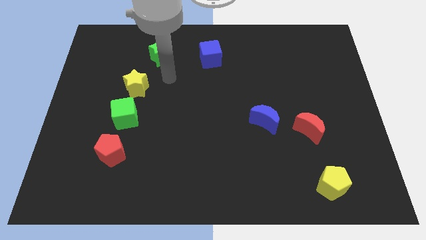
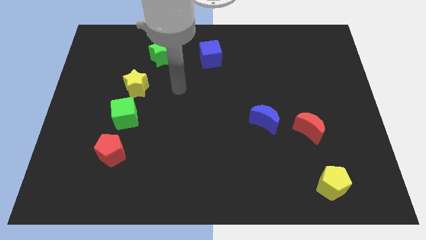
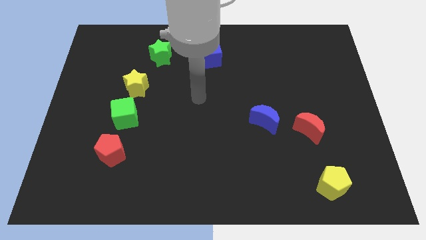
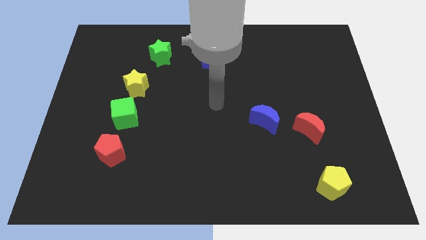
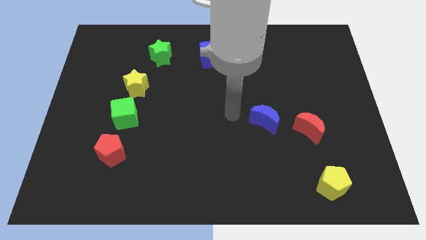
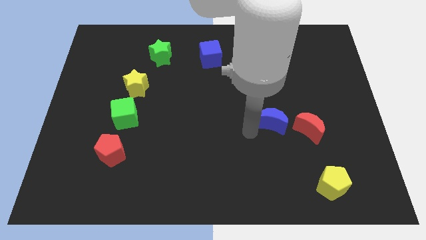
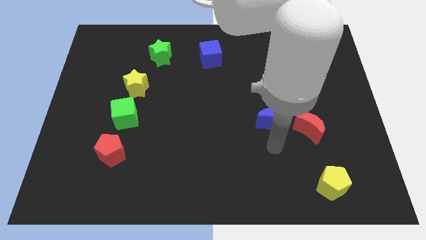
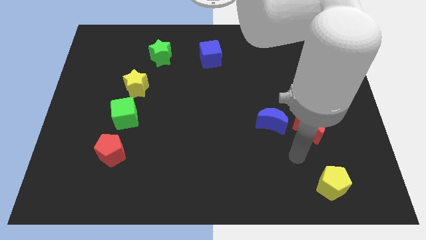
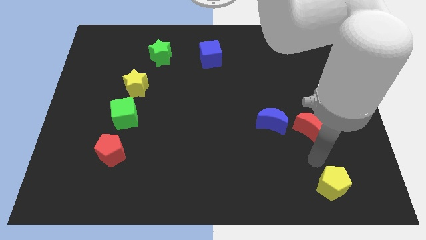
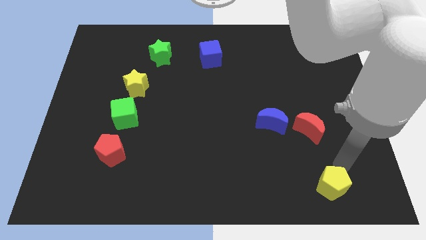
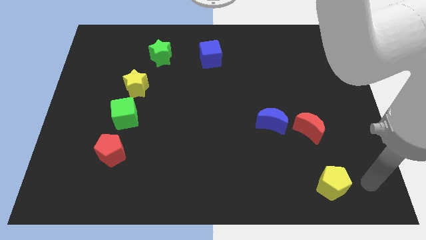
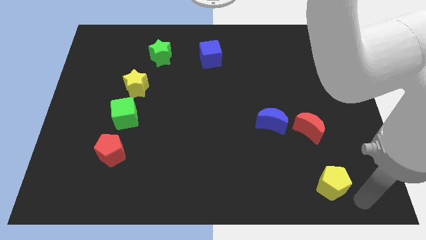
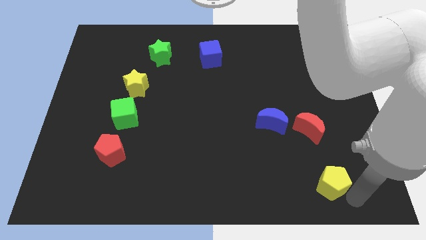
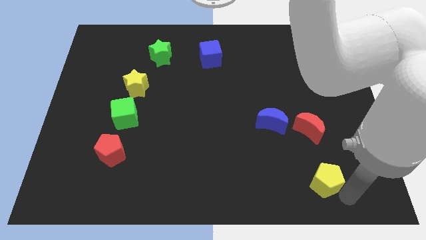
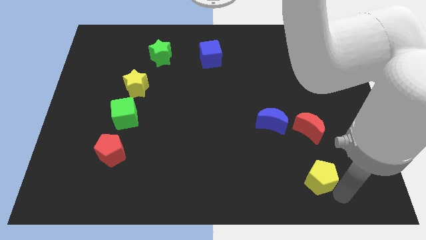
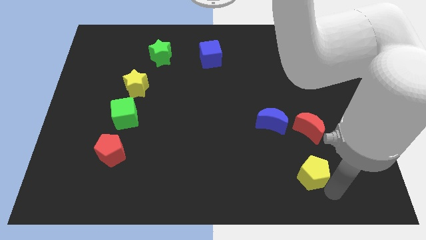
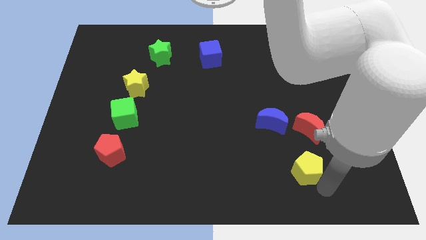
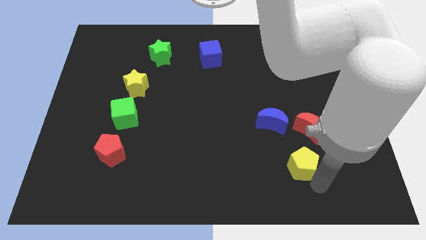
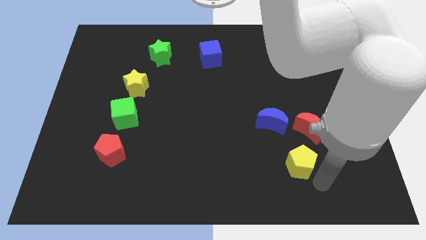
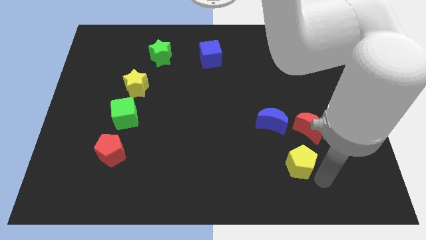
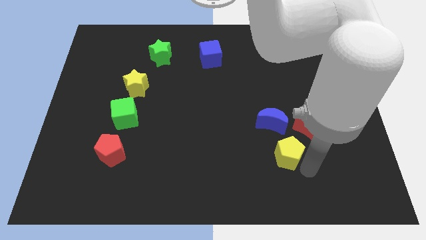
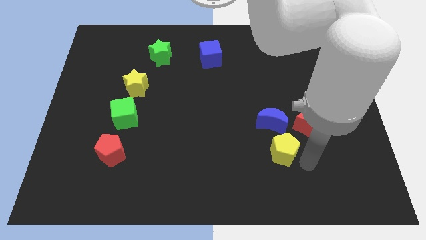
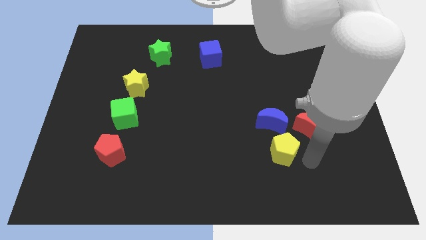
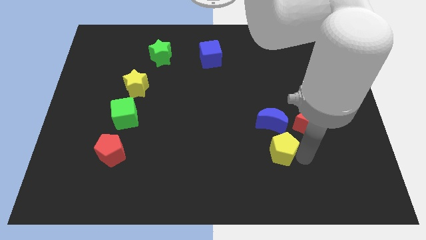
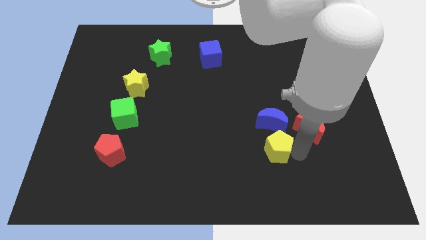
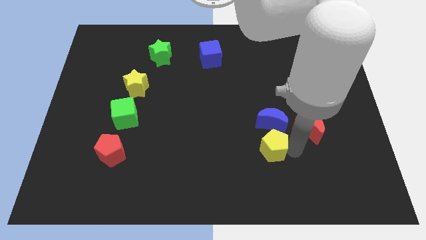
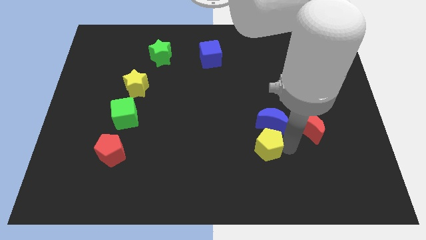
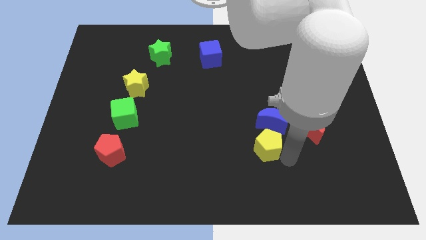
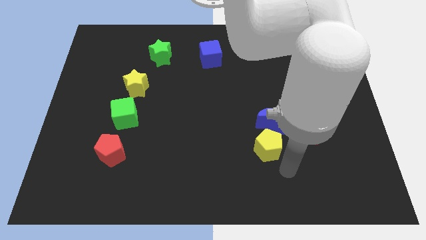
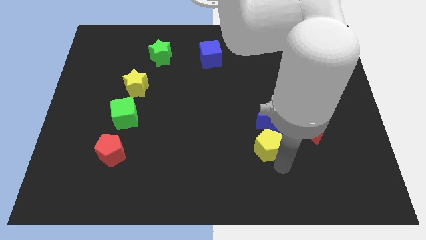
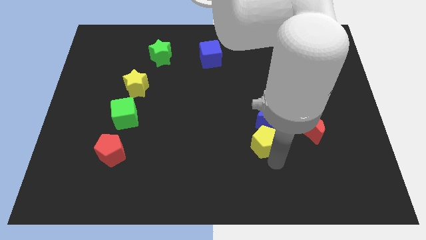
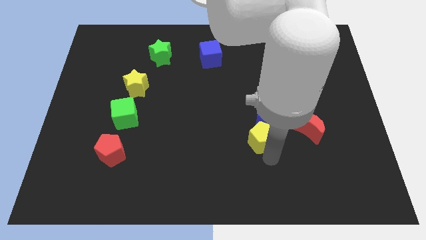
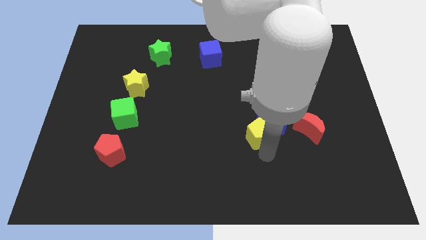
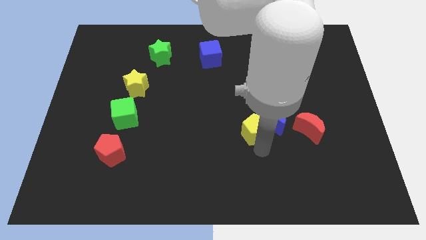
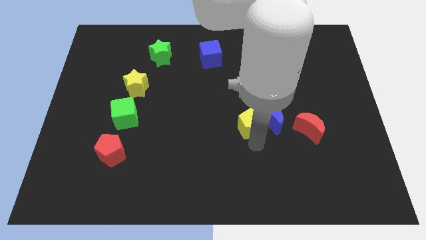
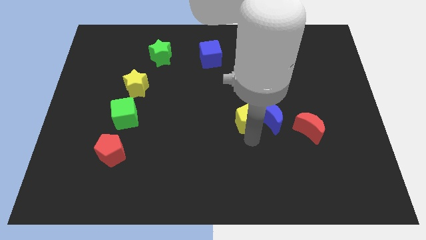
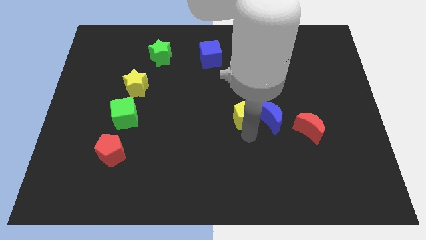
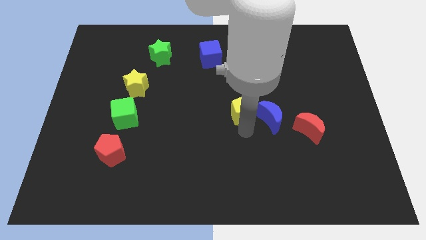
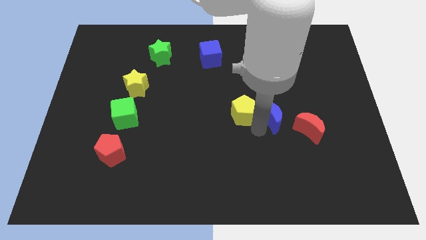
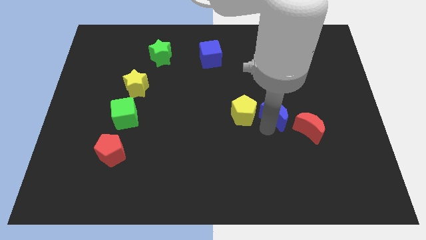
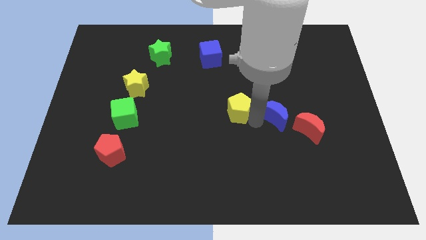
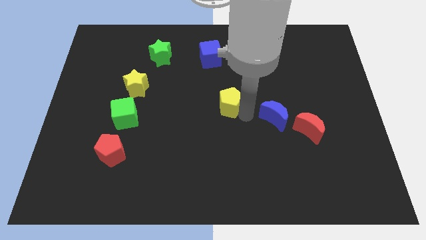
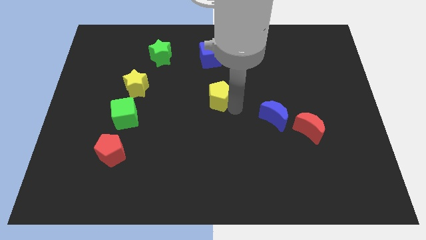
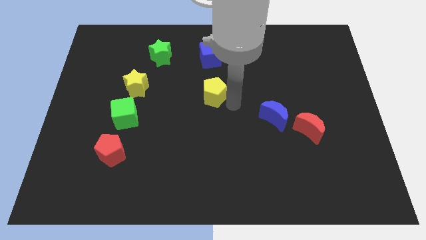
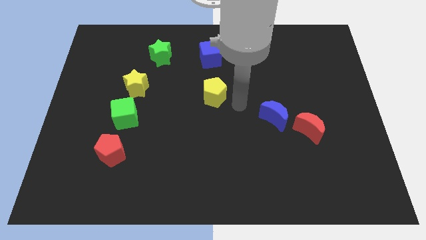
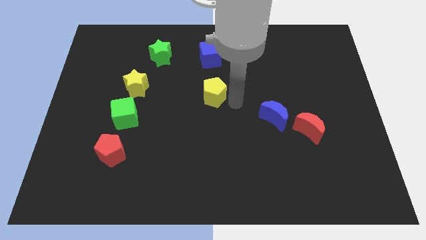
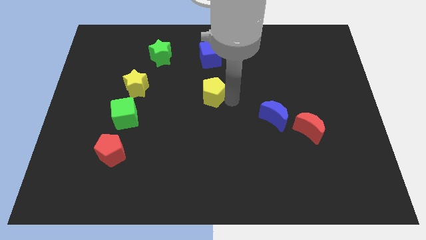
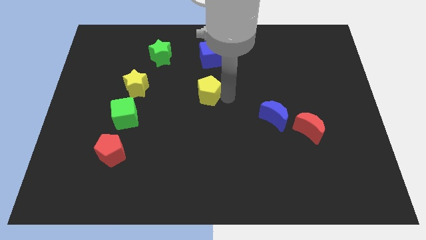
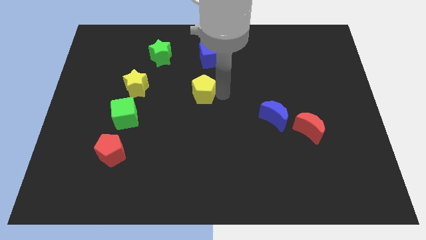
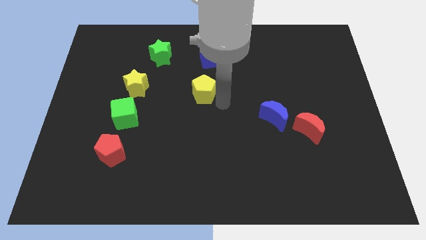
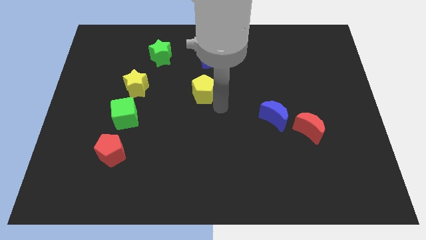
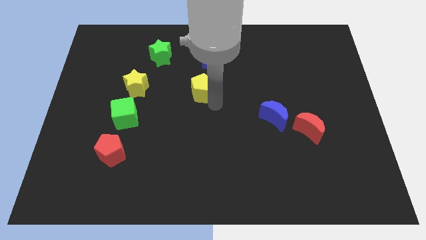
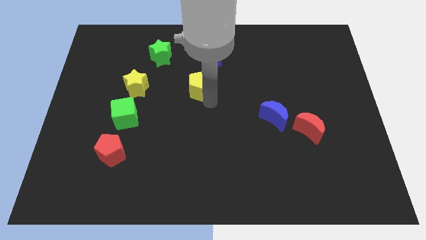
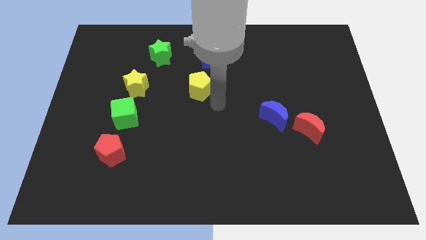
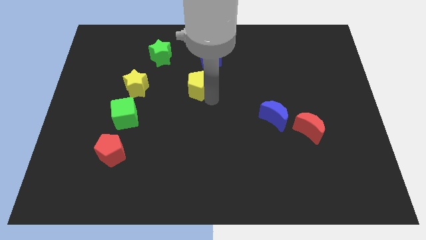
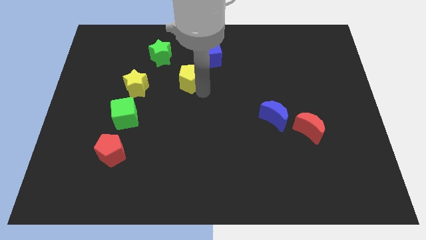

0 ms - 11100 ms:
put the yellow pentagon to the bottom right side of the green star

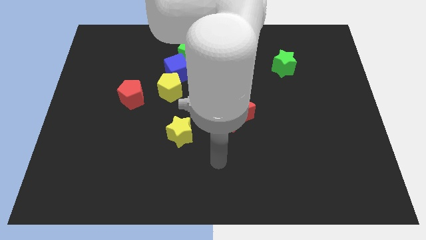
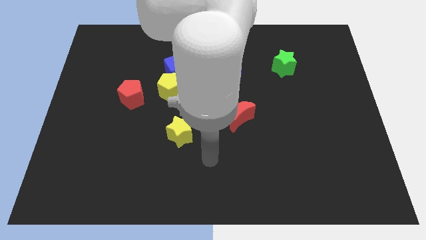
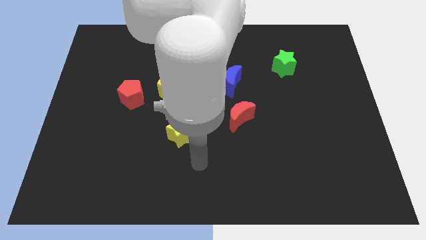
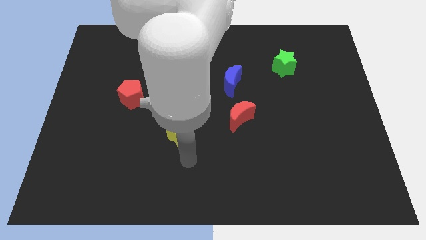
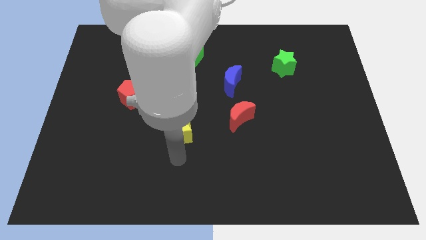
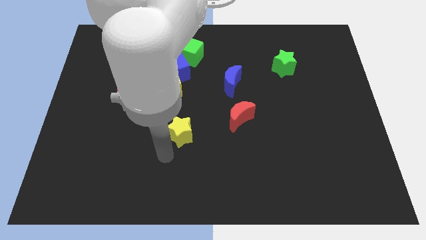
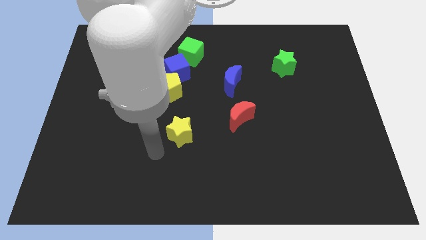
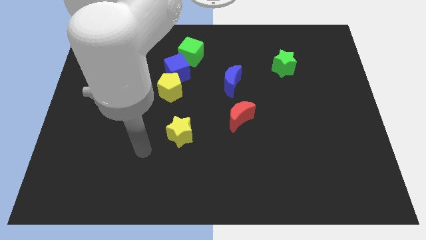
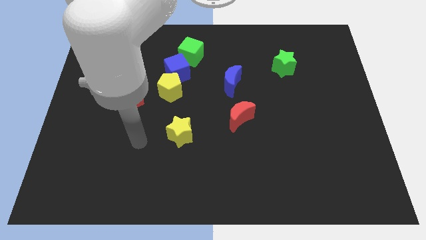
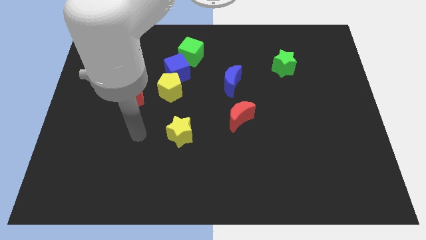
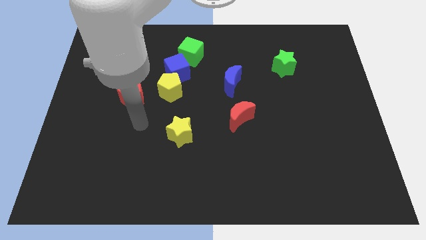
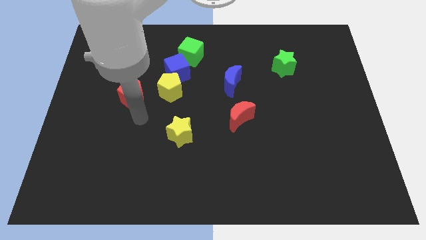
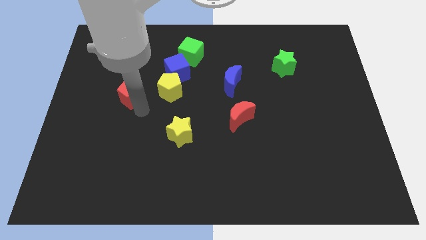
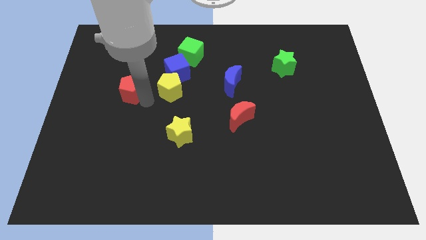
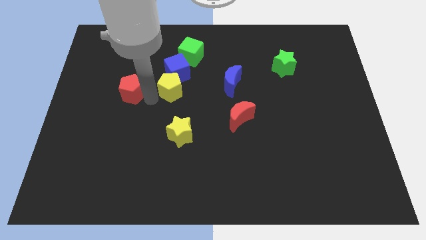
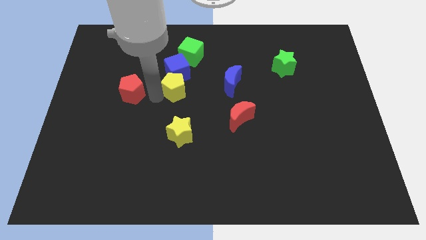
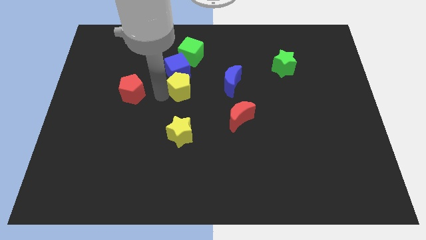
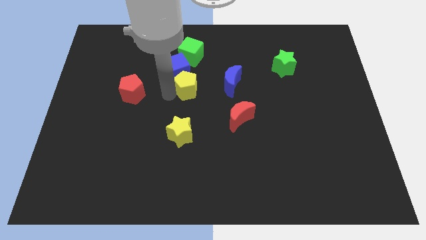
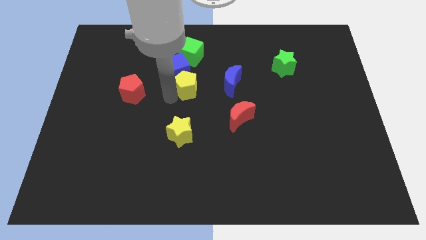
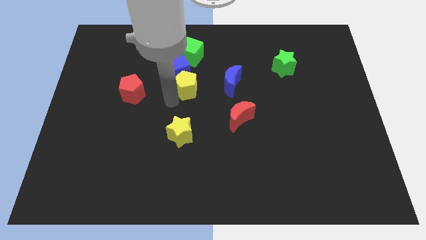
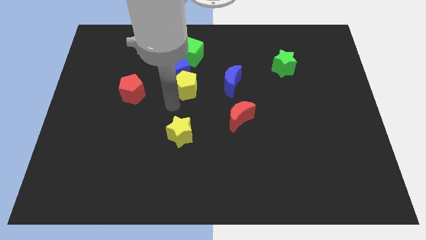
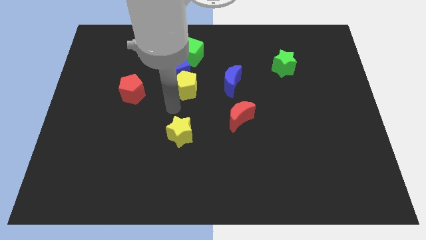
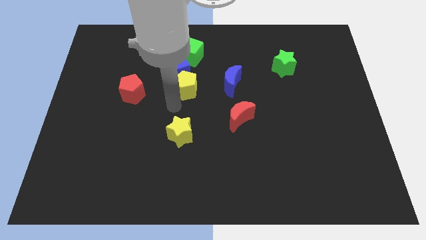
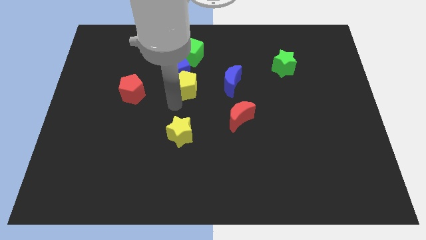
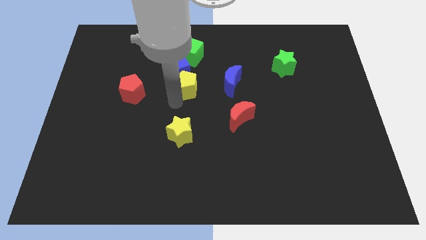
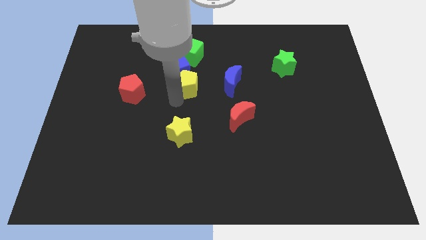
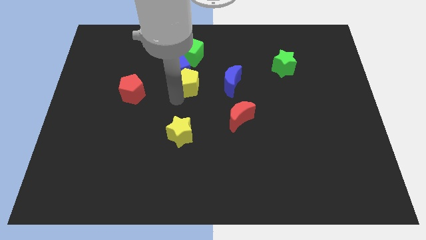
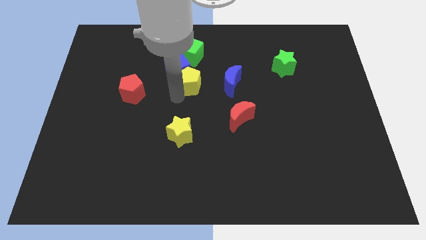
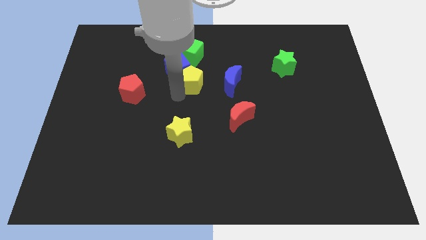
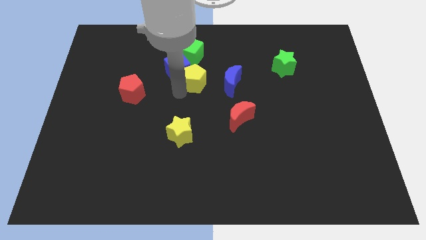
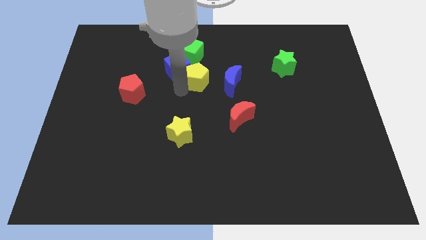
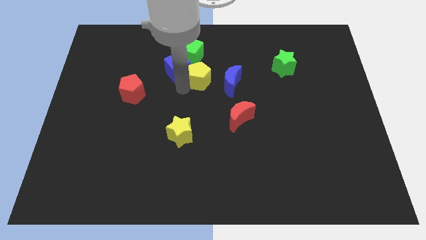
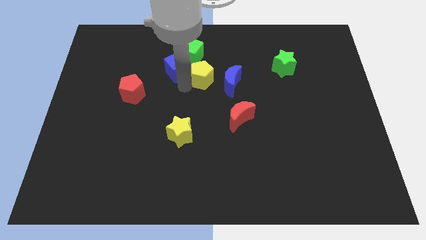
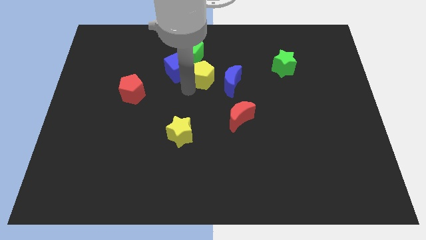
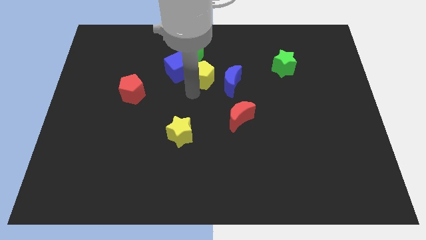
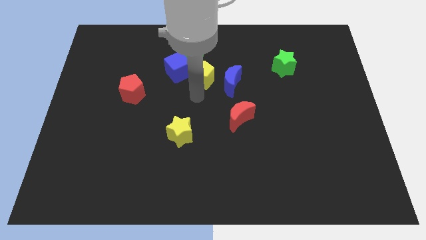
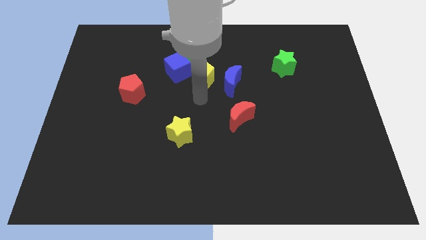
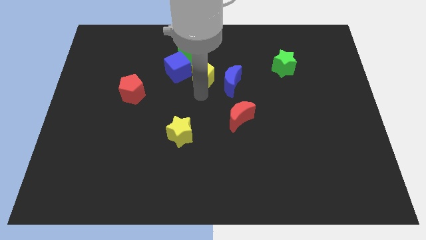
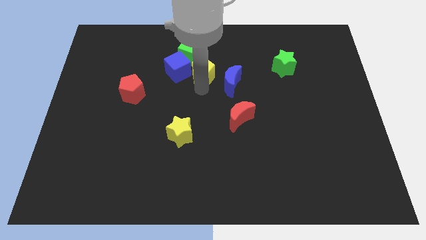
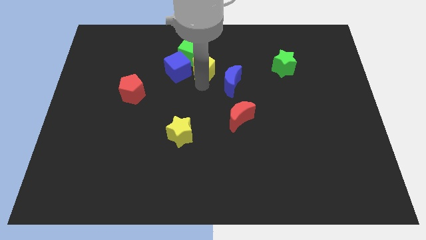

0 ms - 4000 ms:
push the yellow pentagon to the top right of the blue cube
